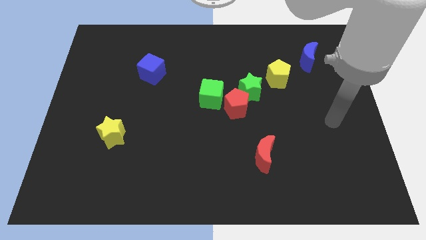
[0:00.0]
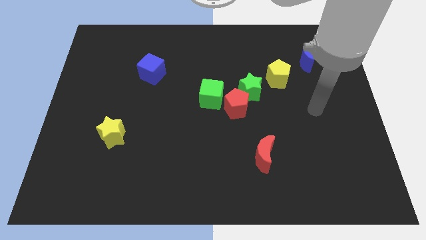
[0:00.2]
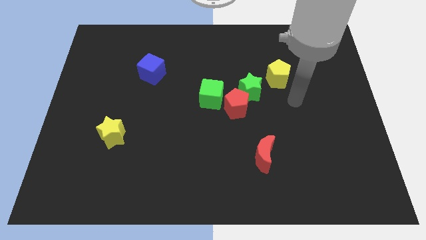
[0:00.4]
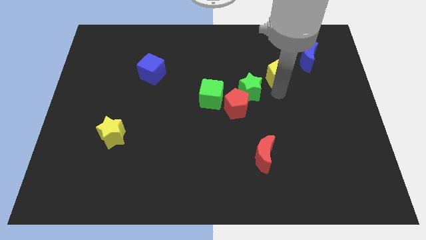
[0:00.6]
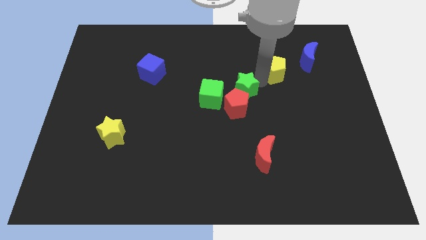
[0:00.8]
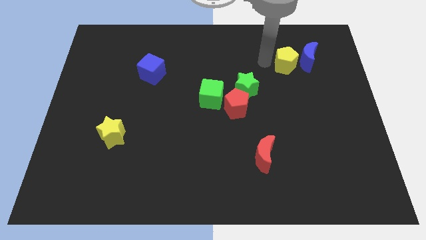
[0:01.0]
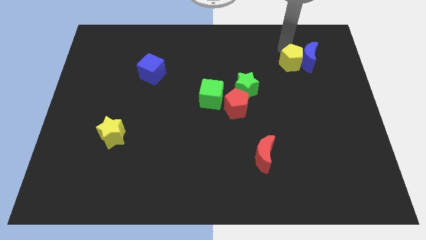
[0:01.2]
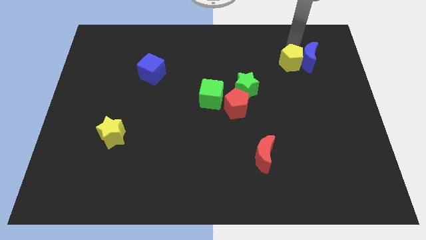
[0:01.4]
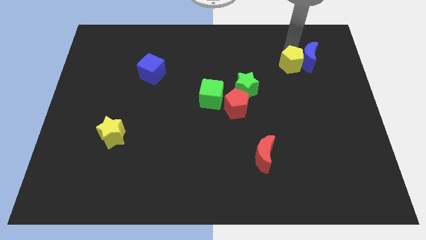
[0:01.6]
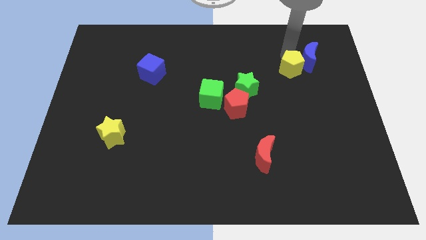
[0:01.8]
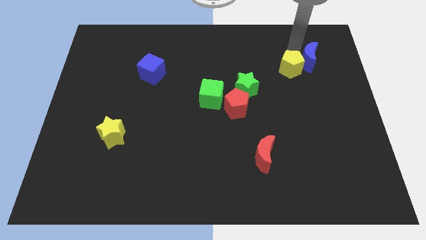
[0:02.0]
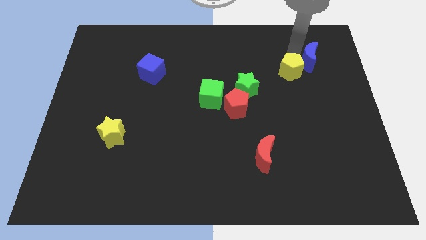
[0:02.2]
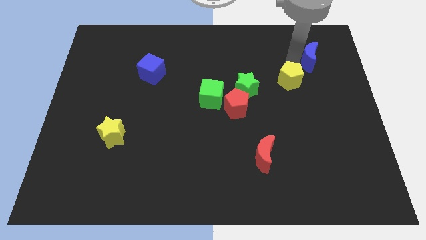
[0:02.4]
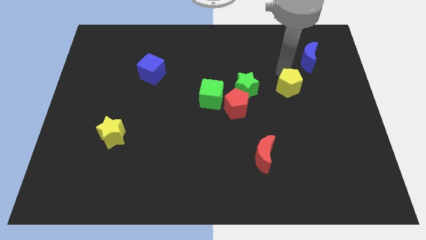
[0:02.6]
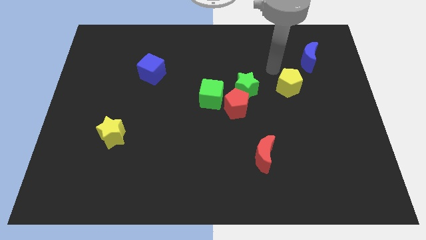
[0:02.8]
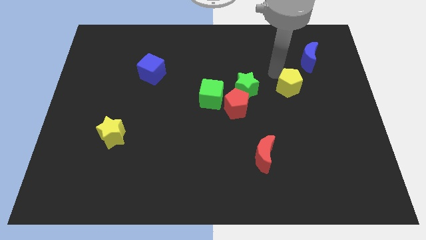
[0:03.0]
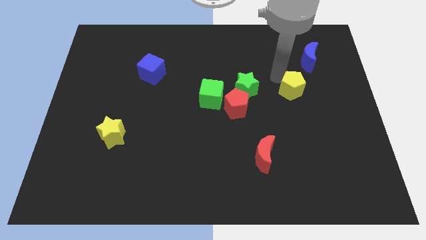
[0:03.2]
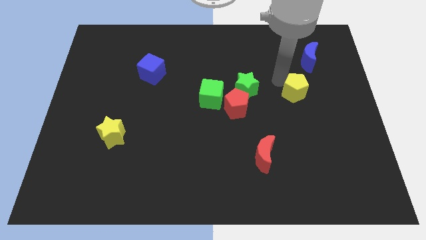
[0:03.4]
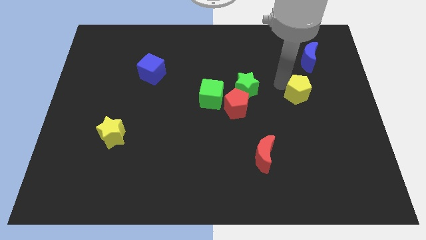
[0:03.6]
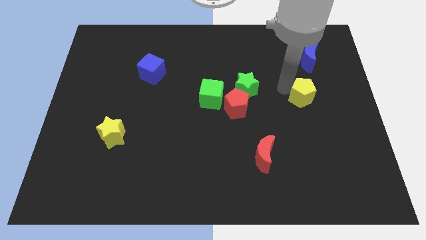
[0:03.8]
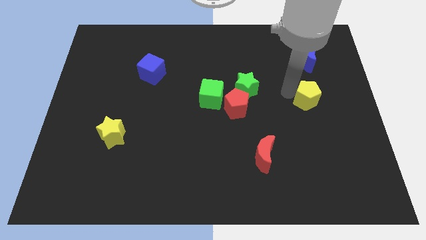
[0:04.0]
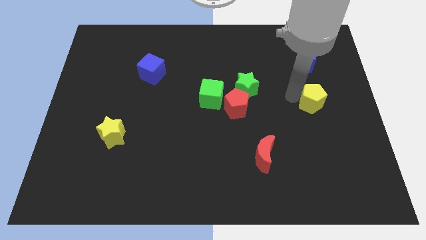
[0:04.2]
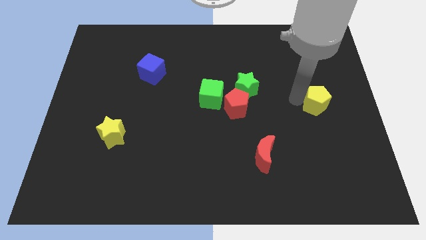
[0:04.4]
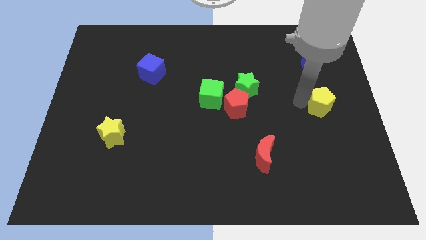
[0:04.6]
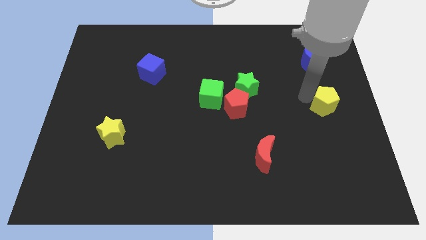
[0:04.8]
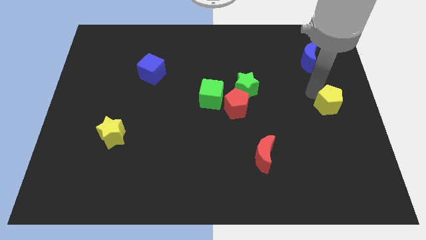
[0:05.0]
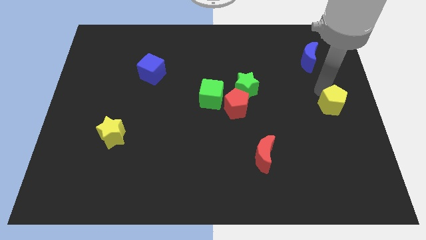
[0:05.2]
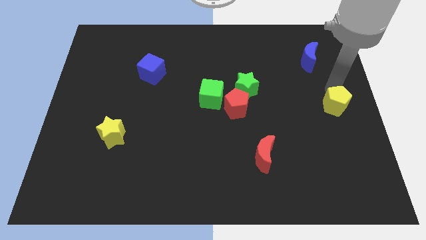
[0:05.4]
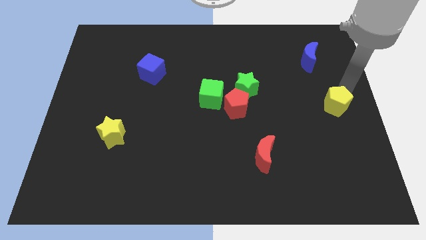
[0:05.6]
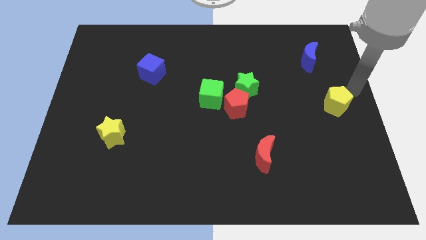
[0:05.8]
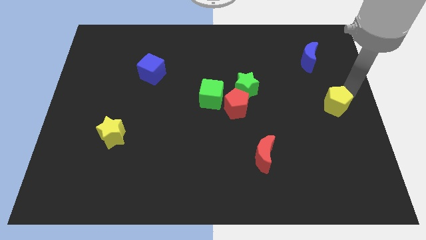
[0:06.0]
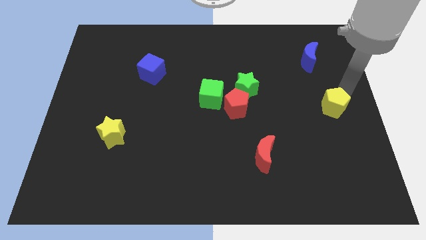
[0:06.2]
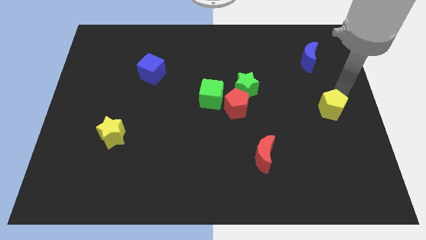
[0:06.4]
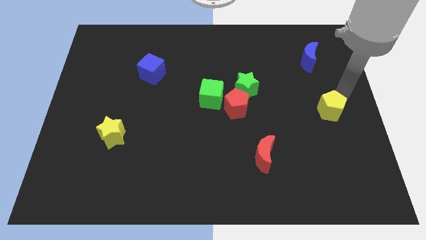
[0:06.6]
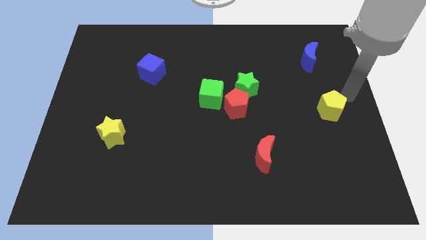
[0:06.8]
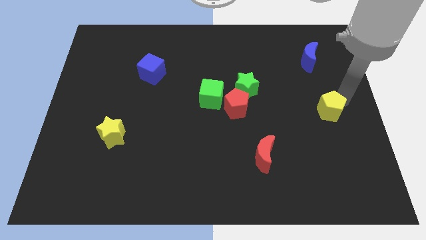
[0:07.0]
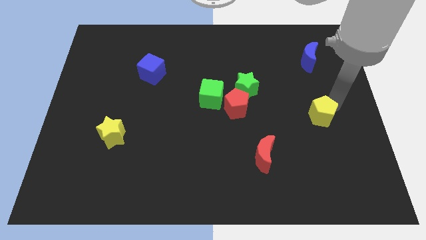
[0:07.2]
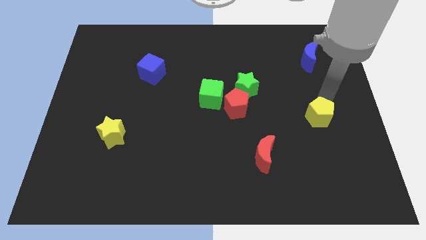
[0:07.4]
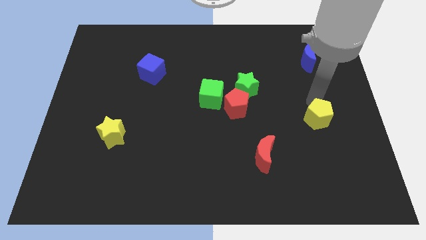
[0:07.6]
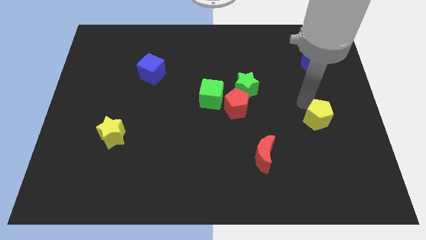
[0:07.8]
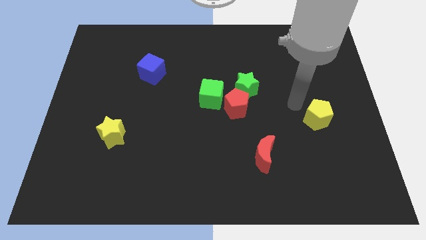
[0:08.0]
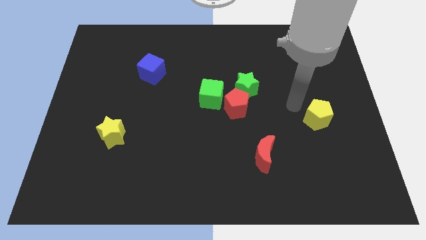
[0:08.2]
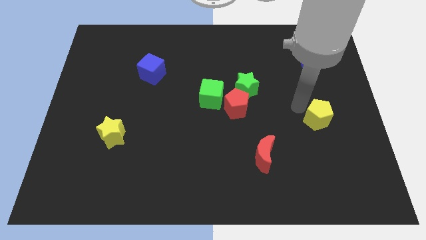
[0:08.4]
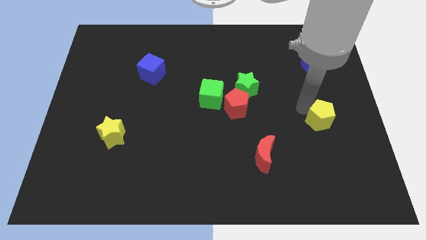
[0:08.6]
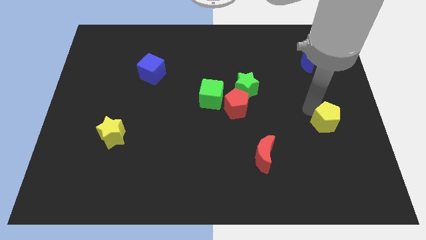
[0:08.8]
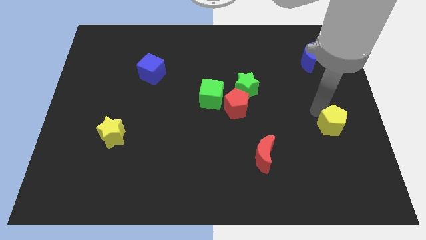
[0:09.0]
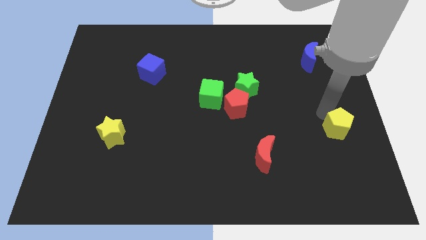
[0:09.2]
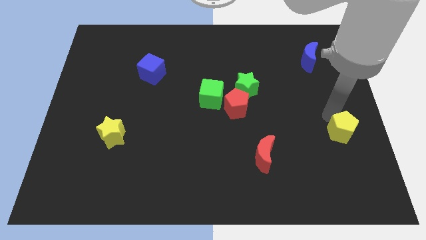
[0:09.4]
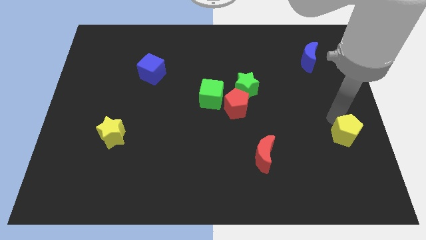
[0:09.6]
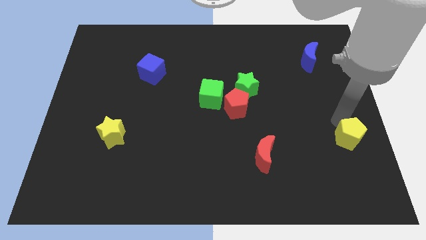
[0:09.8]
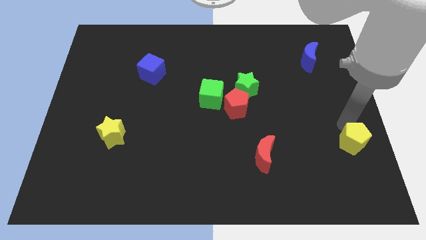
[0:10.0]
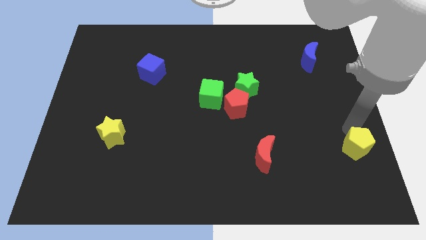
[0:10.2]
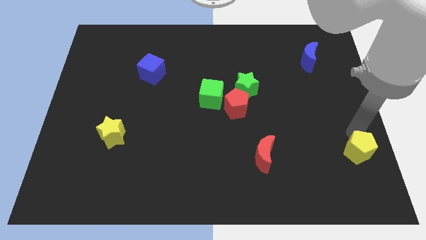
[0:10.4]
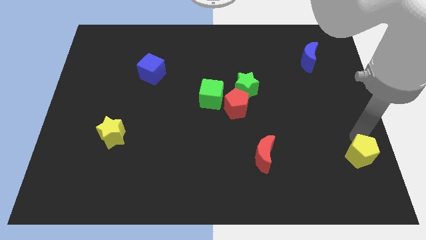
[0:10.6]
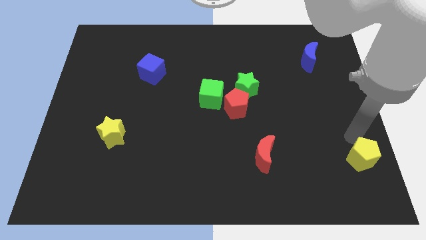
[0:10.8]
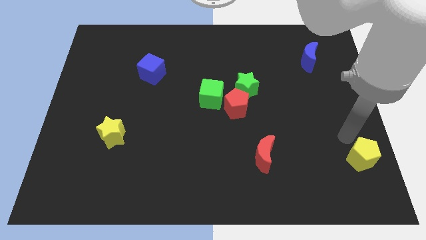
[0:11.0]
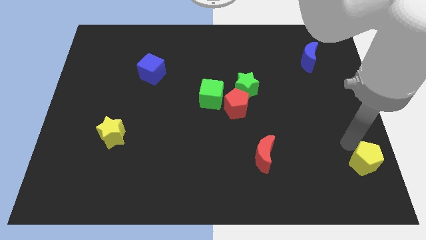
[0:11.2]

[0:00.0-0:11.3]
slide the yellow pentagon to the lower right corner

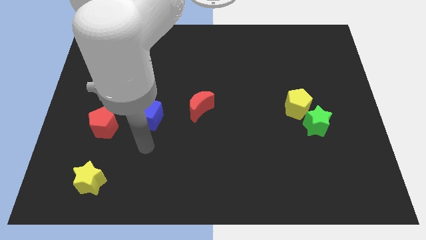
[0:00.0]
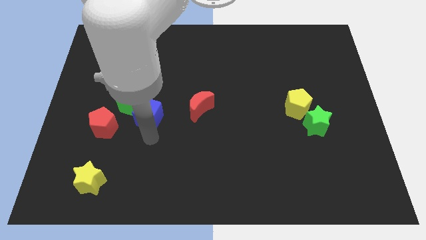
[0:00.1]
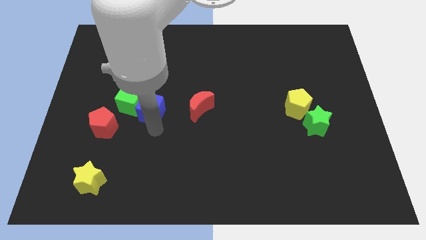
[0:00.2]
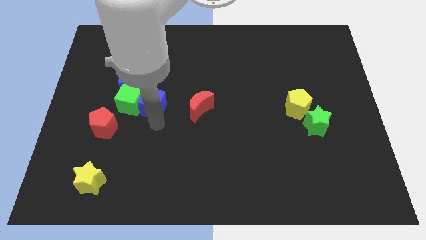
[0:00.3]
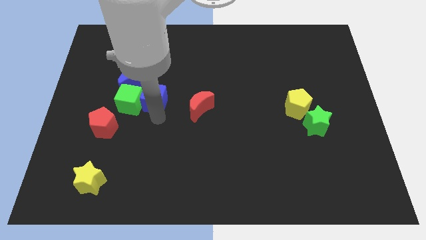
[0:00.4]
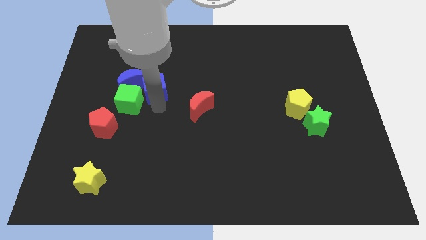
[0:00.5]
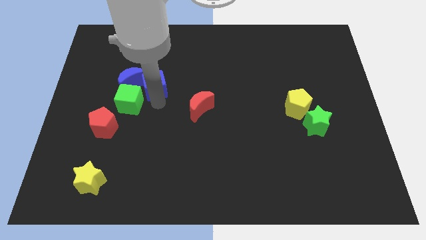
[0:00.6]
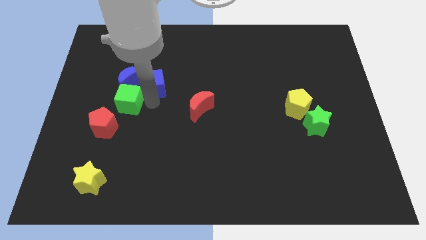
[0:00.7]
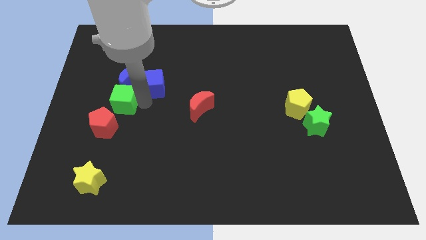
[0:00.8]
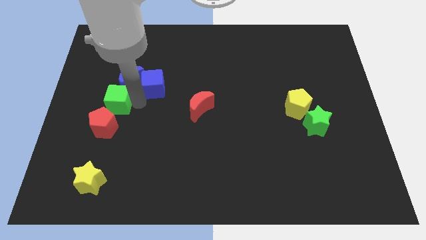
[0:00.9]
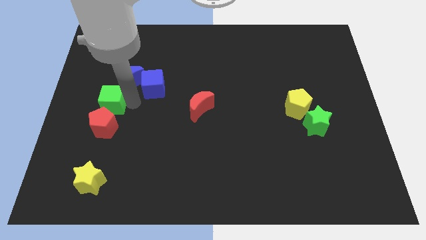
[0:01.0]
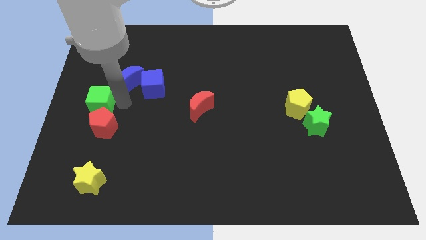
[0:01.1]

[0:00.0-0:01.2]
slide the green cube to the left side
